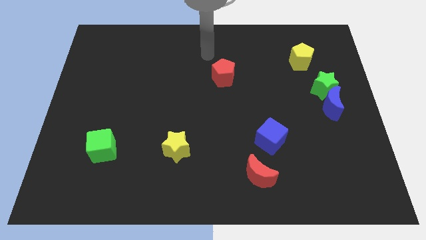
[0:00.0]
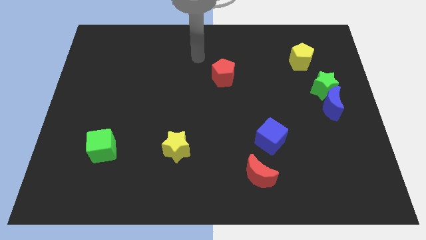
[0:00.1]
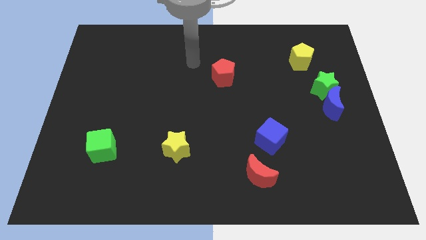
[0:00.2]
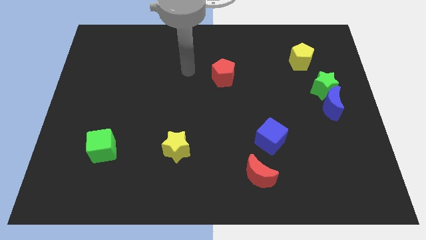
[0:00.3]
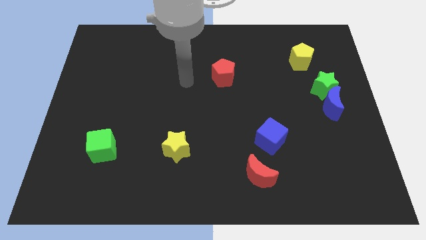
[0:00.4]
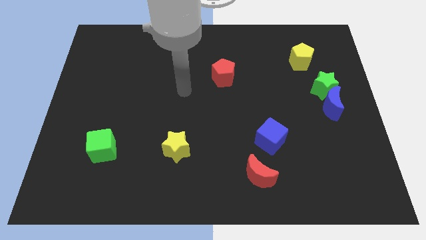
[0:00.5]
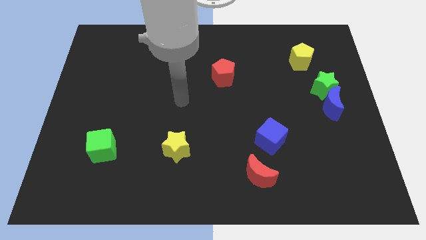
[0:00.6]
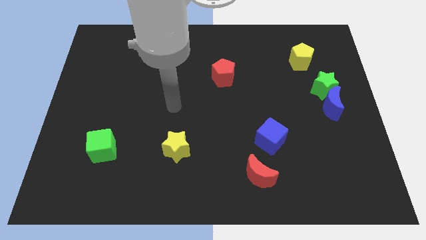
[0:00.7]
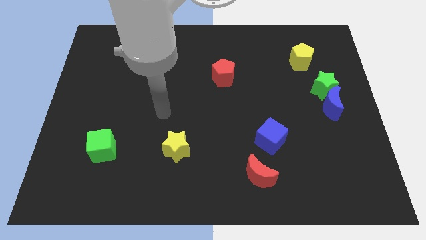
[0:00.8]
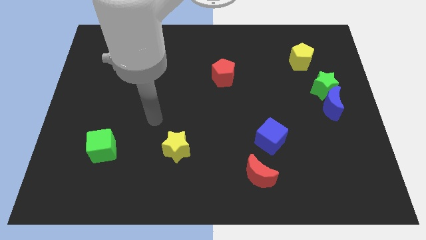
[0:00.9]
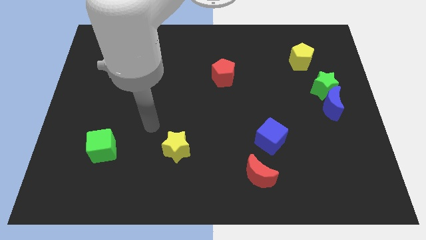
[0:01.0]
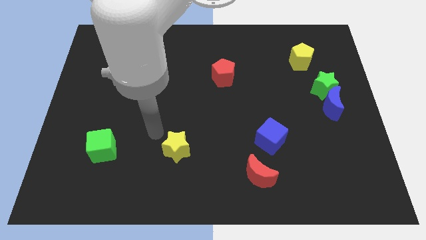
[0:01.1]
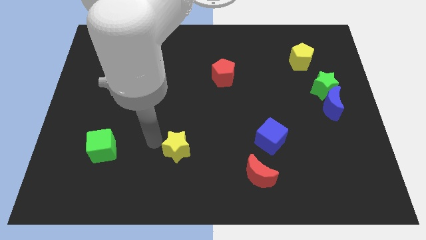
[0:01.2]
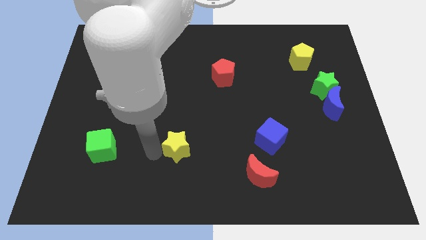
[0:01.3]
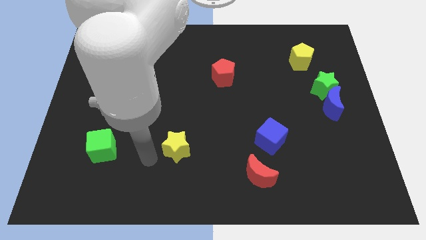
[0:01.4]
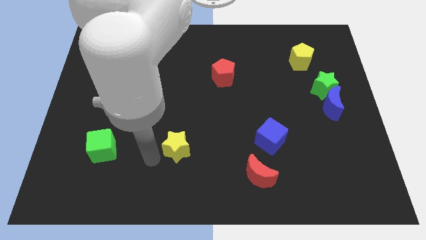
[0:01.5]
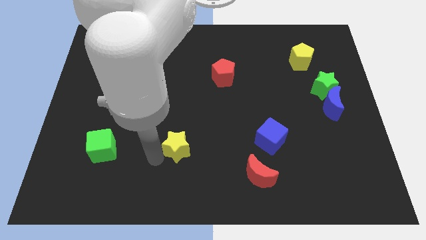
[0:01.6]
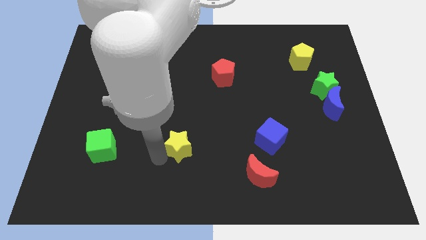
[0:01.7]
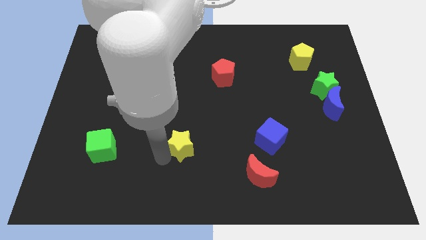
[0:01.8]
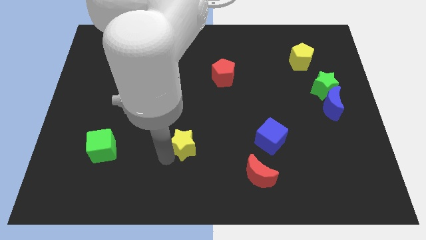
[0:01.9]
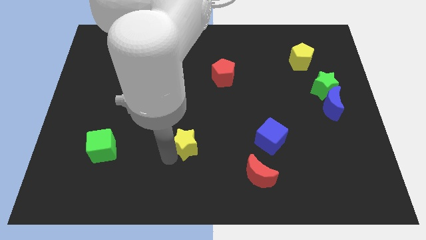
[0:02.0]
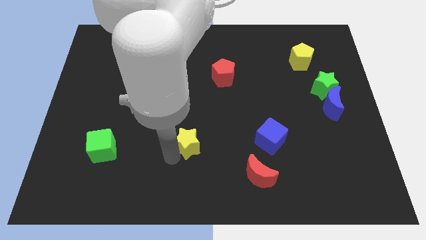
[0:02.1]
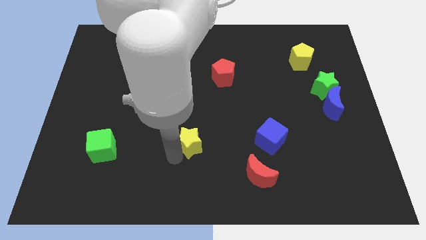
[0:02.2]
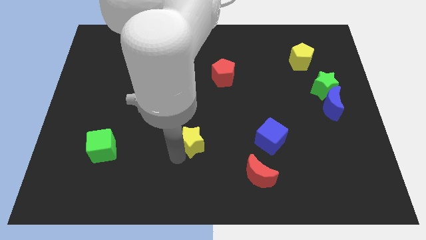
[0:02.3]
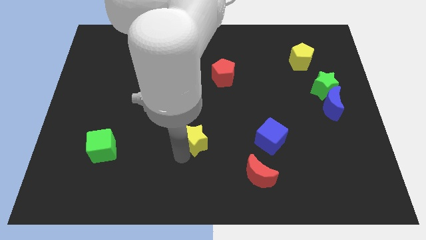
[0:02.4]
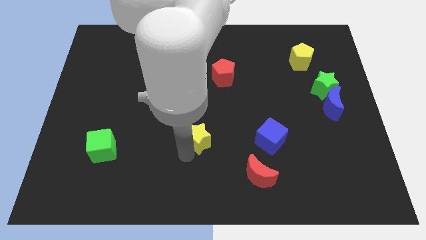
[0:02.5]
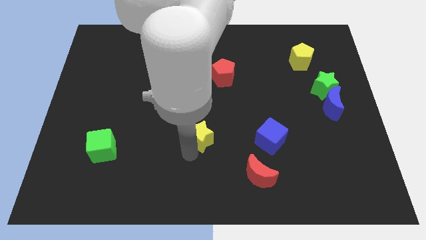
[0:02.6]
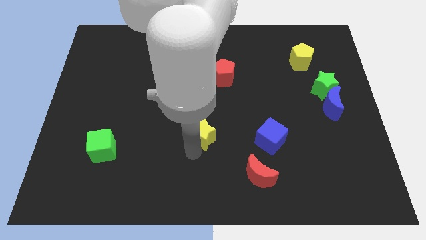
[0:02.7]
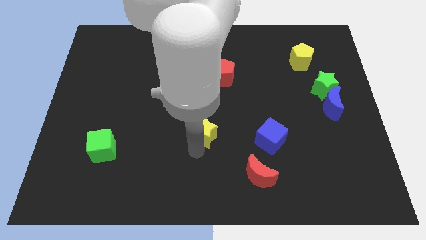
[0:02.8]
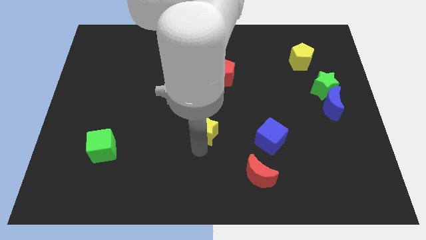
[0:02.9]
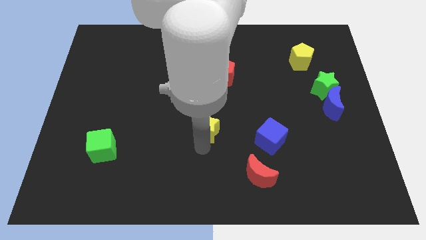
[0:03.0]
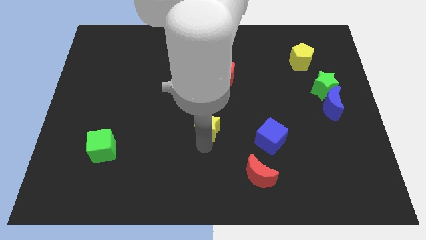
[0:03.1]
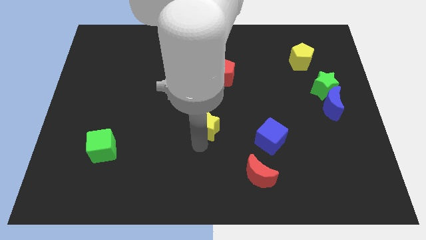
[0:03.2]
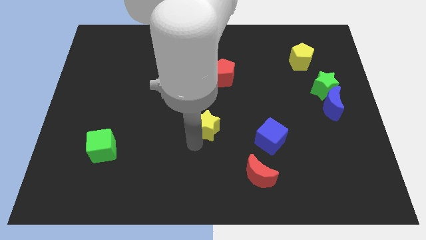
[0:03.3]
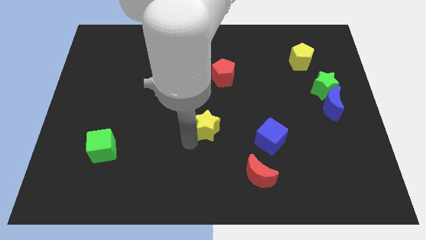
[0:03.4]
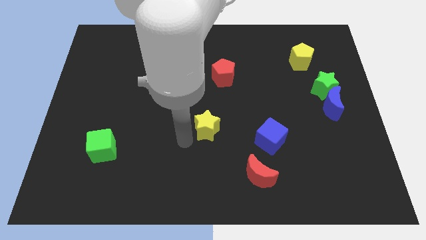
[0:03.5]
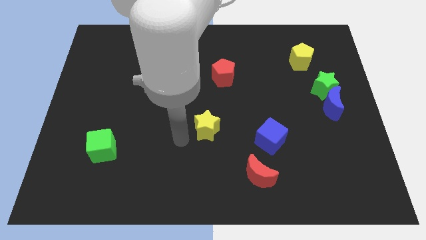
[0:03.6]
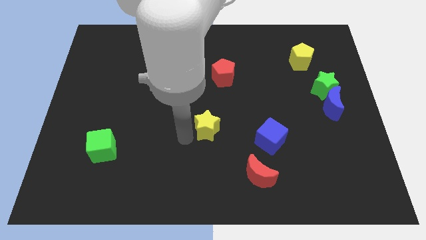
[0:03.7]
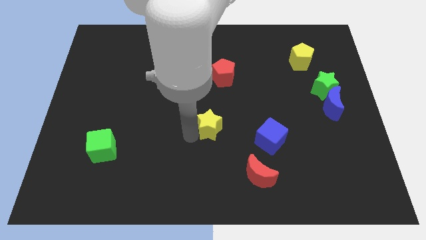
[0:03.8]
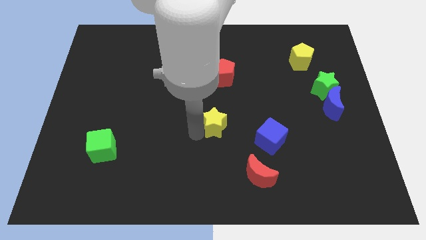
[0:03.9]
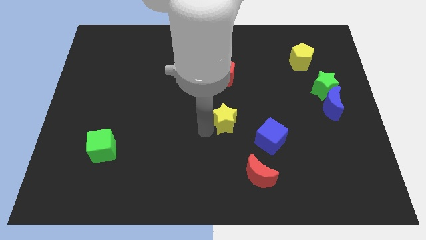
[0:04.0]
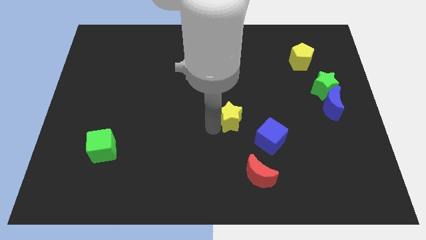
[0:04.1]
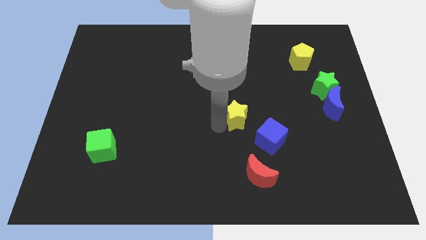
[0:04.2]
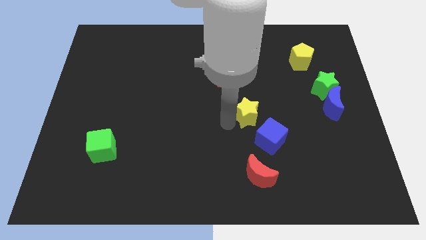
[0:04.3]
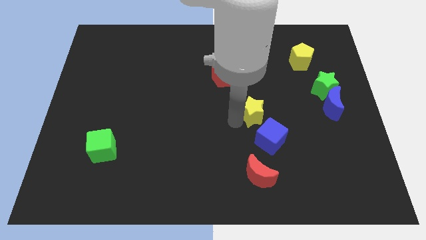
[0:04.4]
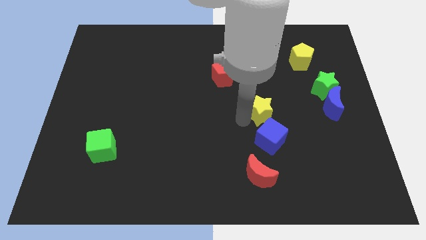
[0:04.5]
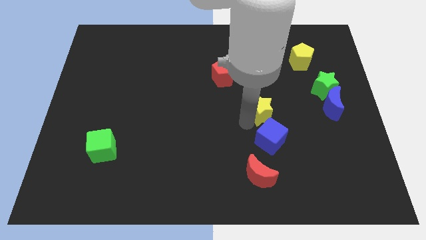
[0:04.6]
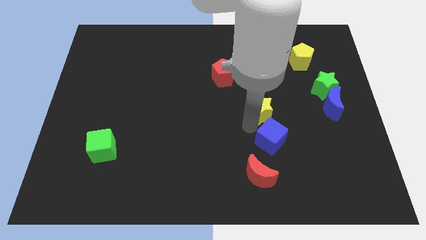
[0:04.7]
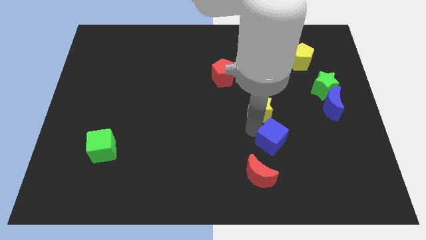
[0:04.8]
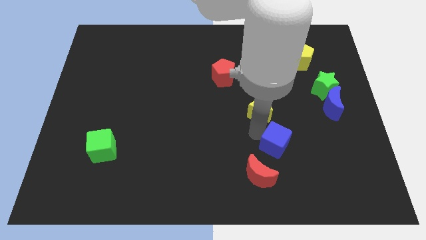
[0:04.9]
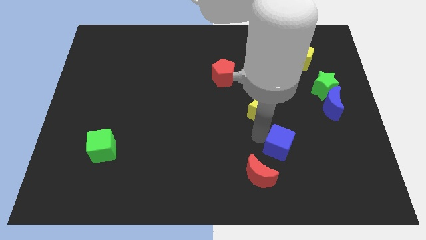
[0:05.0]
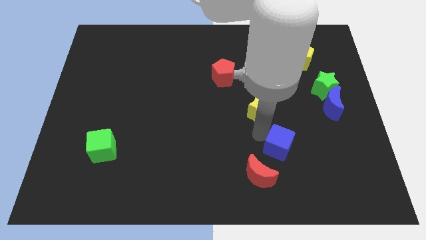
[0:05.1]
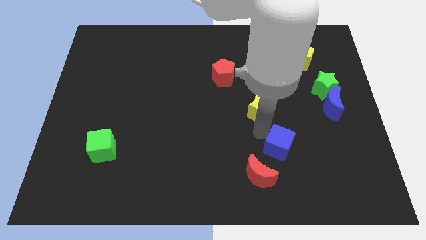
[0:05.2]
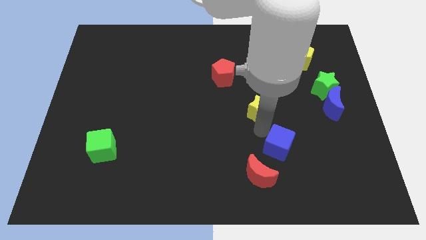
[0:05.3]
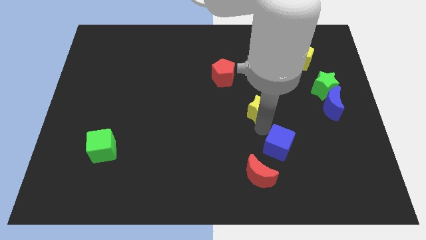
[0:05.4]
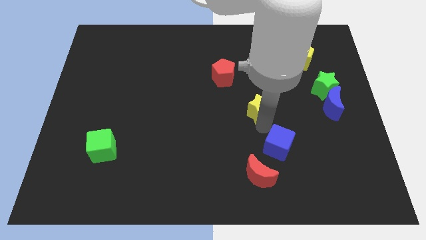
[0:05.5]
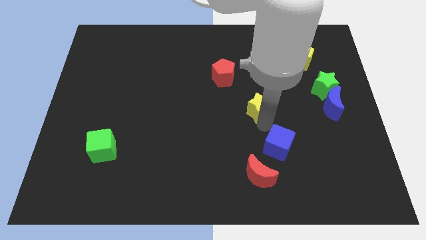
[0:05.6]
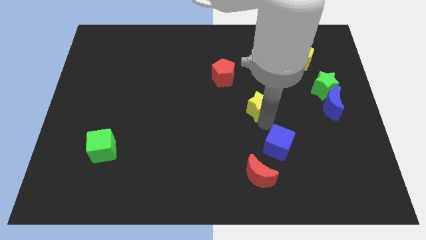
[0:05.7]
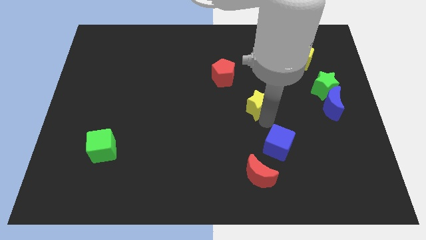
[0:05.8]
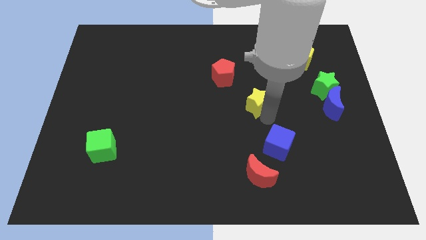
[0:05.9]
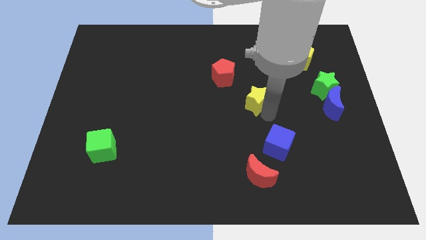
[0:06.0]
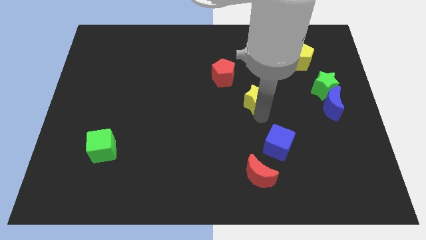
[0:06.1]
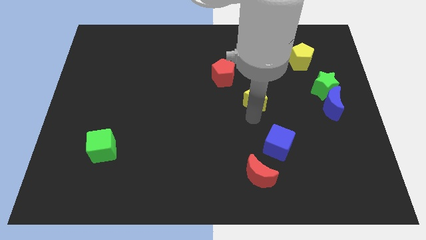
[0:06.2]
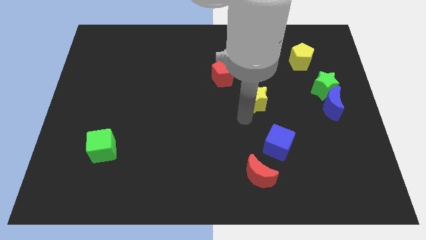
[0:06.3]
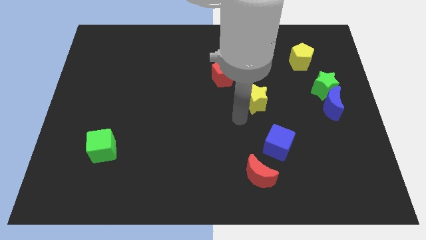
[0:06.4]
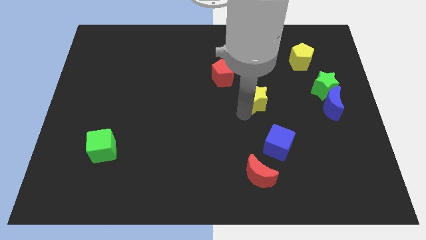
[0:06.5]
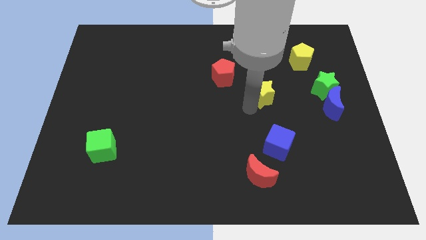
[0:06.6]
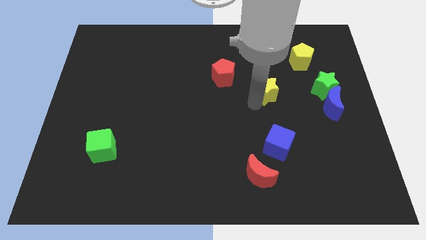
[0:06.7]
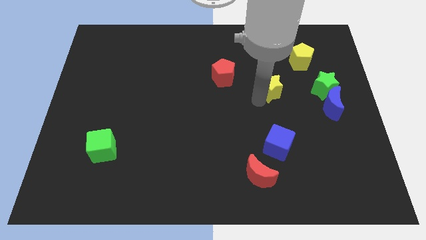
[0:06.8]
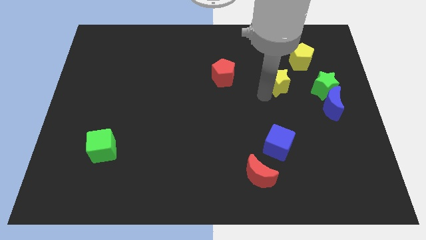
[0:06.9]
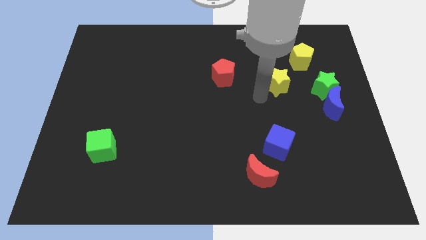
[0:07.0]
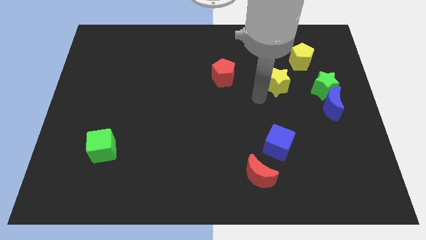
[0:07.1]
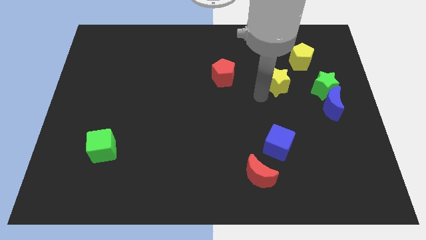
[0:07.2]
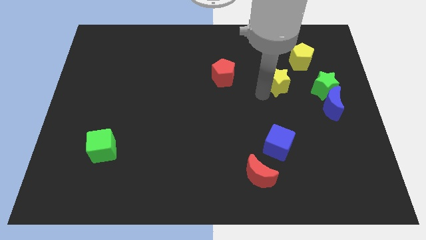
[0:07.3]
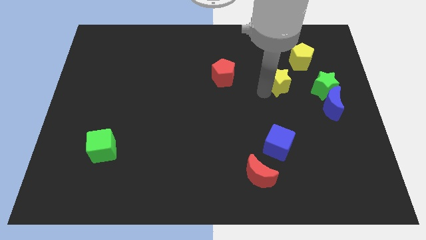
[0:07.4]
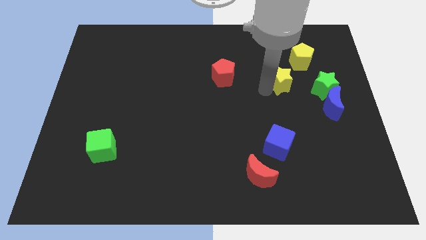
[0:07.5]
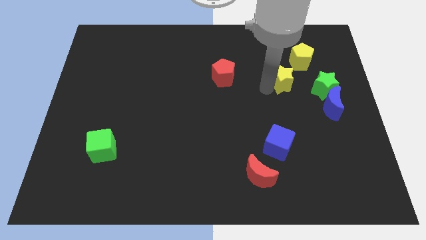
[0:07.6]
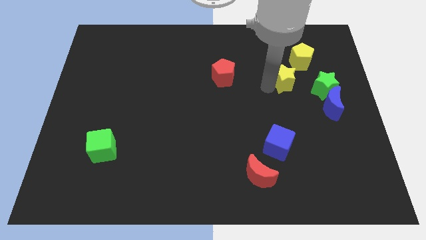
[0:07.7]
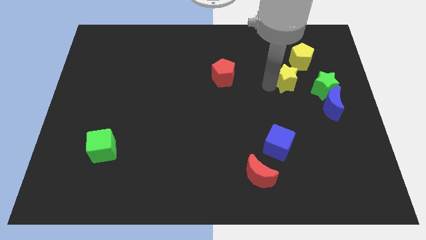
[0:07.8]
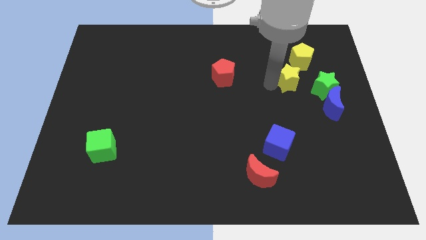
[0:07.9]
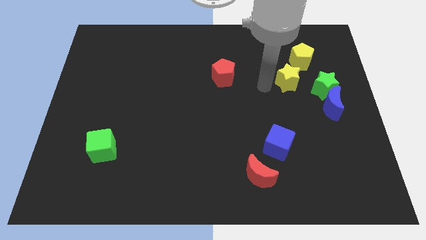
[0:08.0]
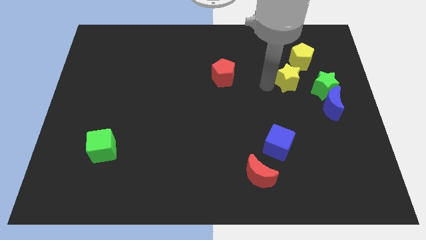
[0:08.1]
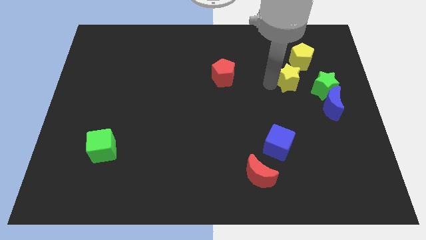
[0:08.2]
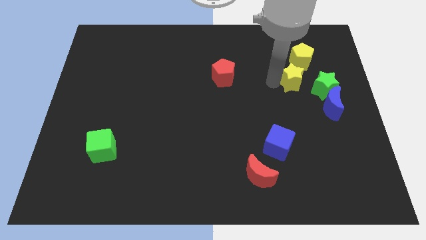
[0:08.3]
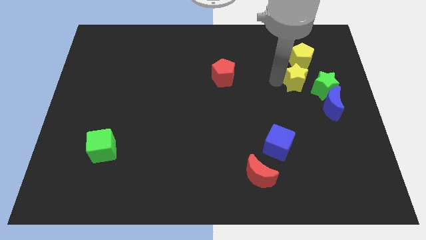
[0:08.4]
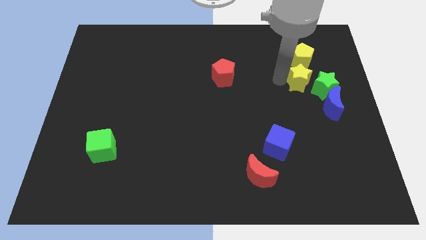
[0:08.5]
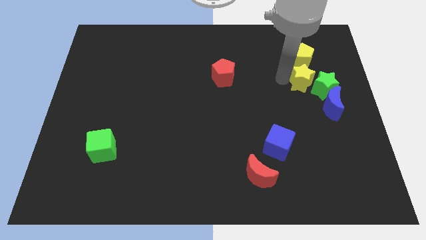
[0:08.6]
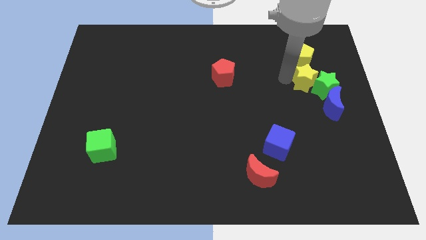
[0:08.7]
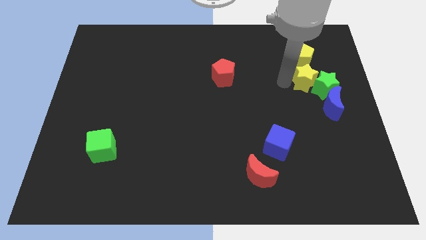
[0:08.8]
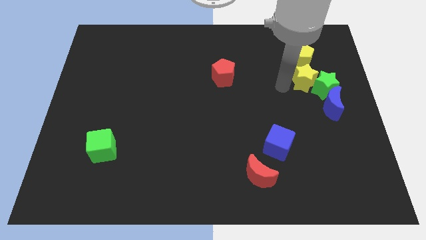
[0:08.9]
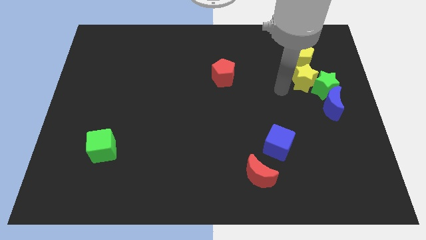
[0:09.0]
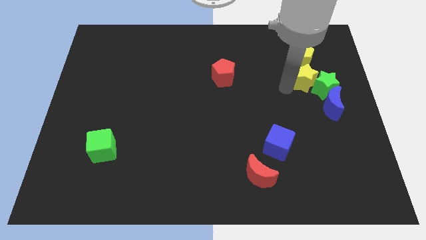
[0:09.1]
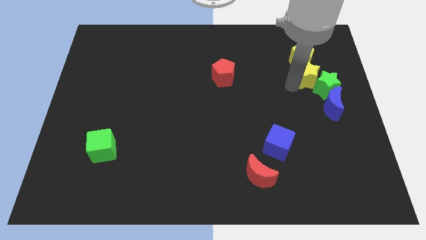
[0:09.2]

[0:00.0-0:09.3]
slide the yellow star diagonally down and to the right of the yellow pentagon
